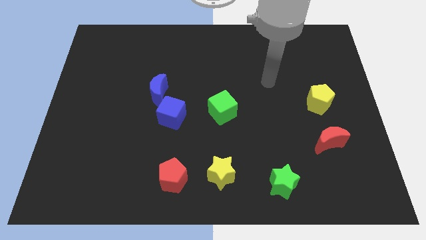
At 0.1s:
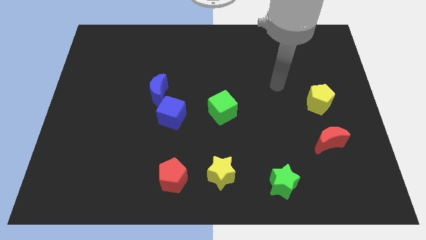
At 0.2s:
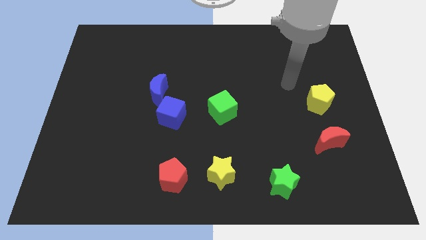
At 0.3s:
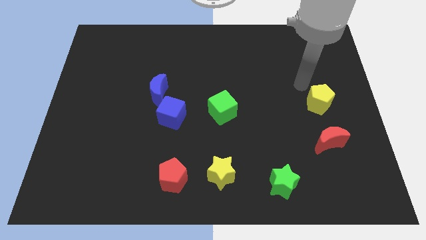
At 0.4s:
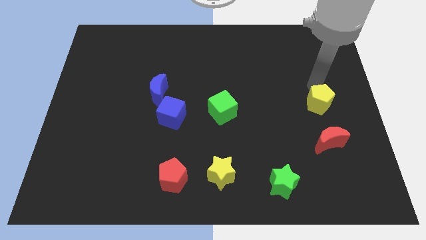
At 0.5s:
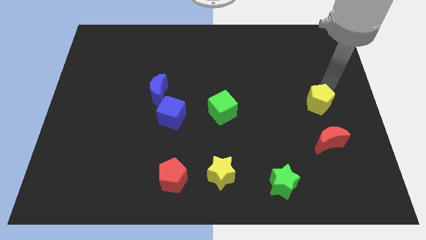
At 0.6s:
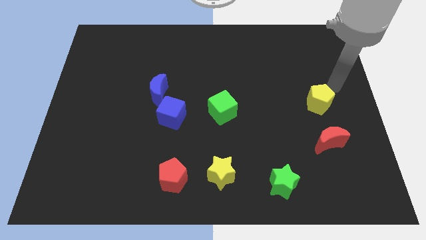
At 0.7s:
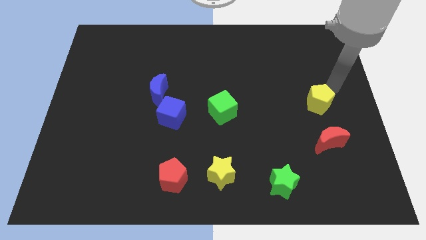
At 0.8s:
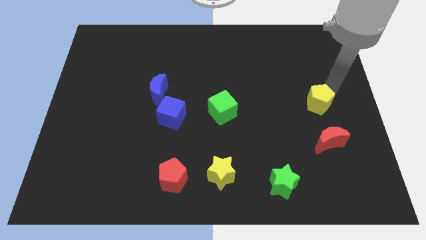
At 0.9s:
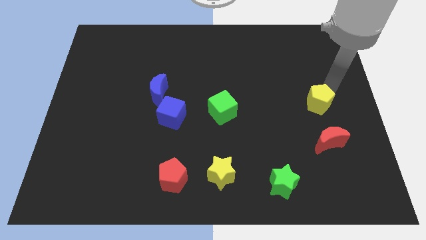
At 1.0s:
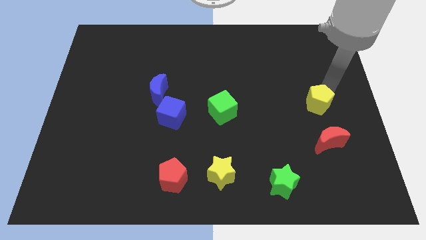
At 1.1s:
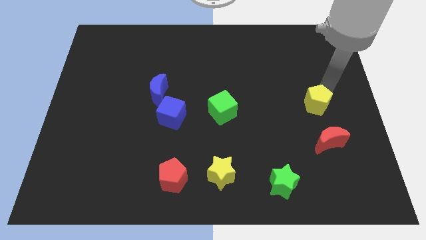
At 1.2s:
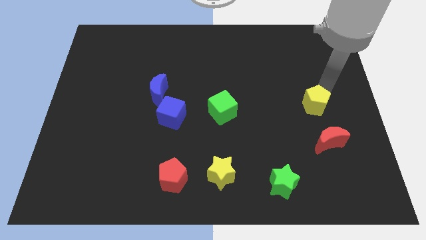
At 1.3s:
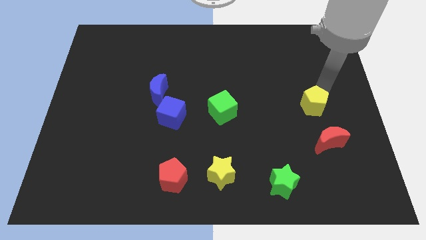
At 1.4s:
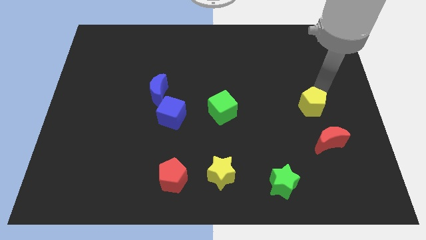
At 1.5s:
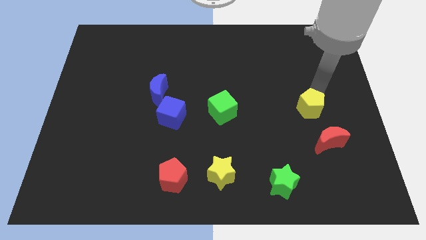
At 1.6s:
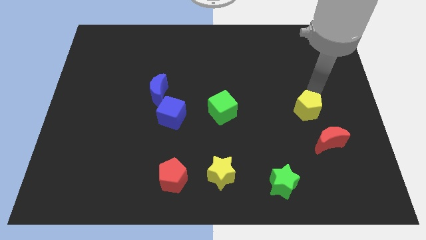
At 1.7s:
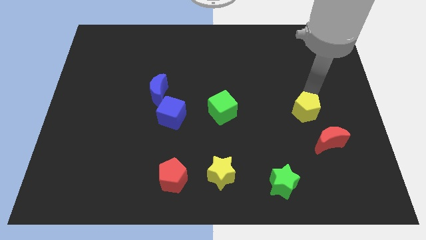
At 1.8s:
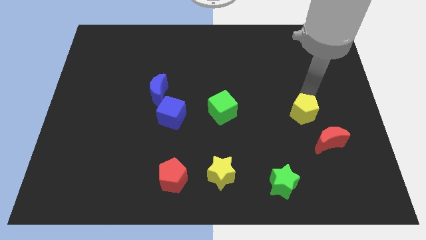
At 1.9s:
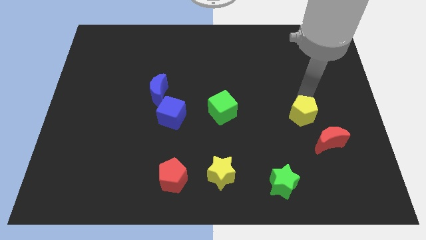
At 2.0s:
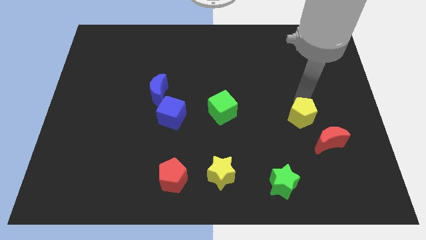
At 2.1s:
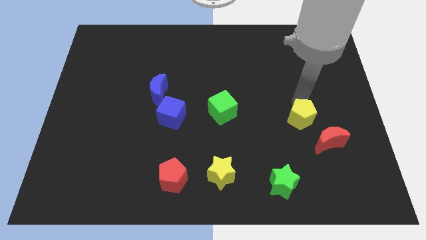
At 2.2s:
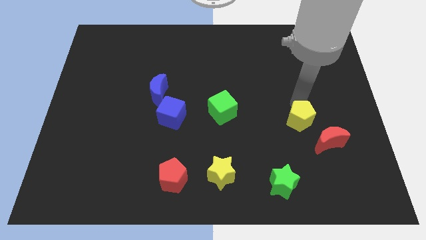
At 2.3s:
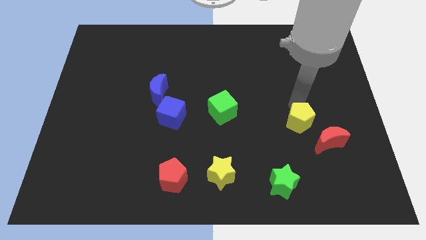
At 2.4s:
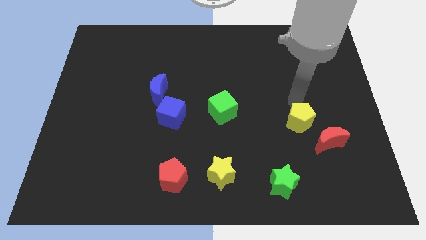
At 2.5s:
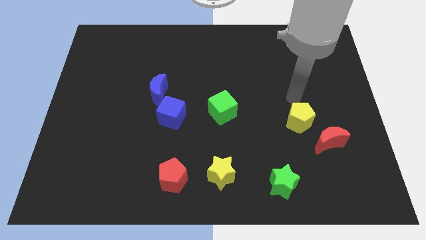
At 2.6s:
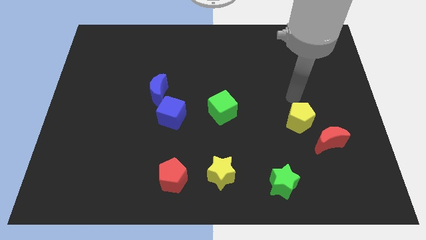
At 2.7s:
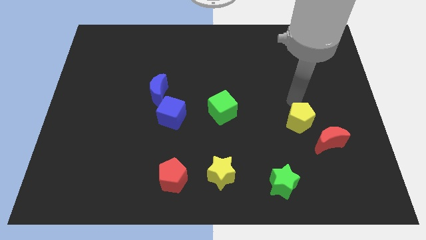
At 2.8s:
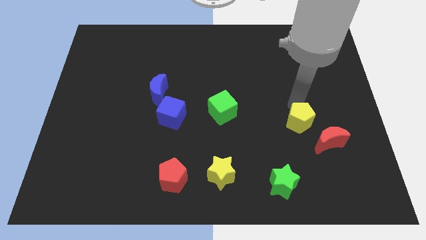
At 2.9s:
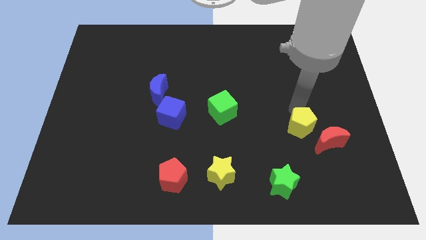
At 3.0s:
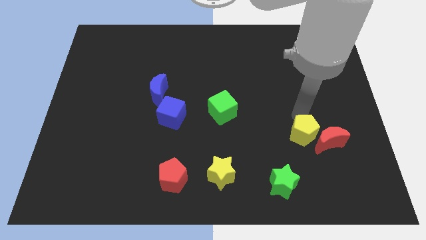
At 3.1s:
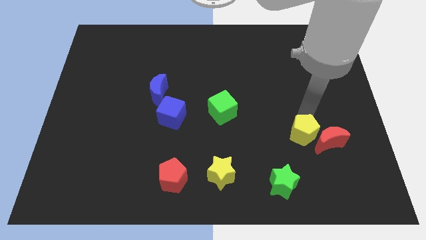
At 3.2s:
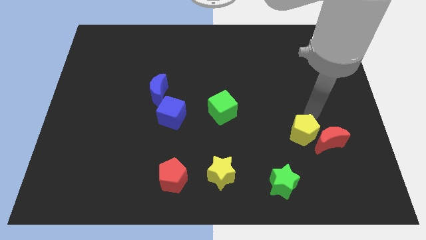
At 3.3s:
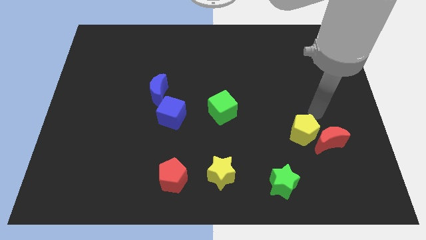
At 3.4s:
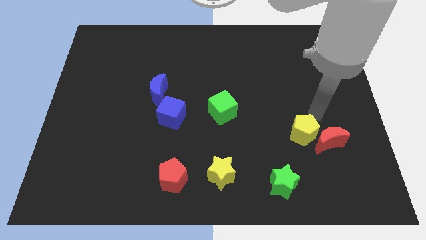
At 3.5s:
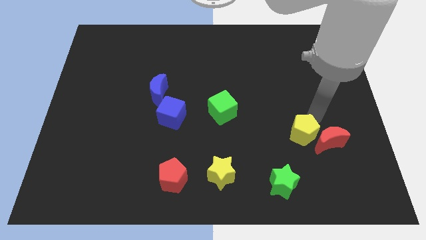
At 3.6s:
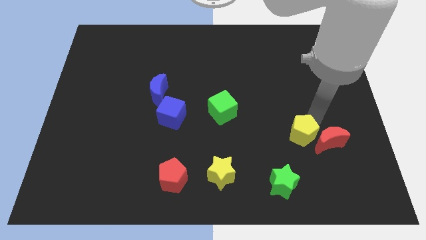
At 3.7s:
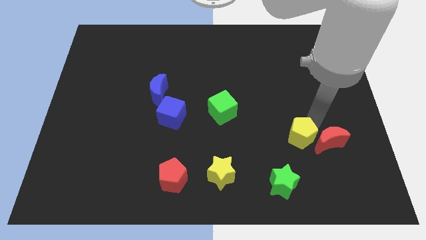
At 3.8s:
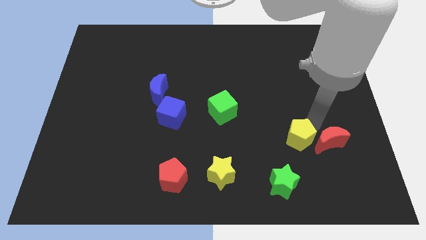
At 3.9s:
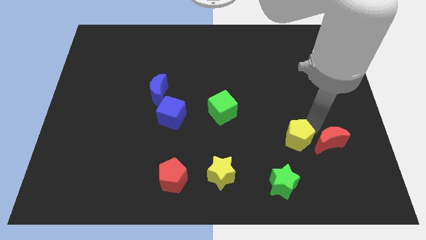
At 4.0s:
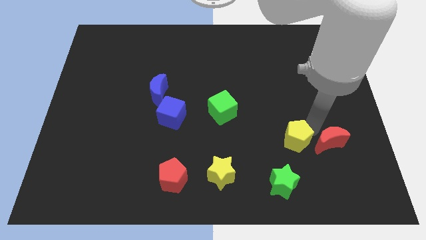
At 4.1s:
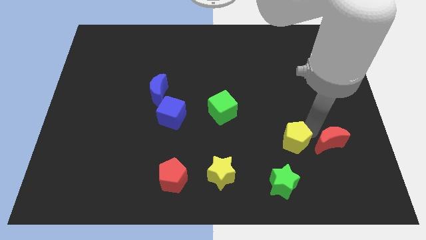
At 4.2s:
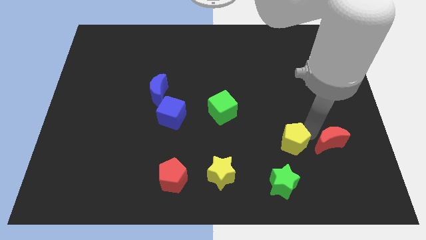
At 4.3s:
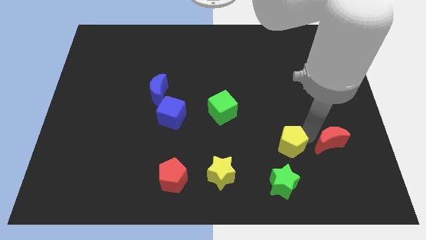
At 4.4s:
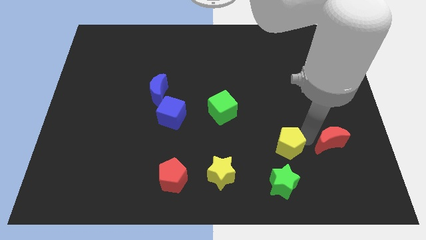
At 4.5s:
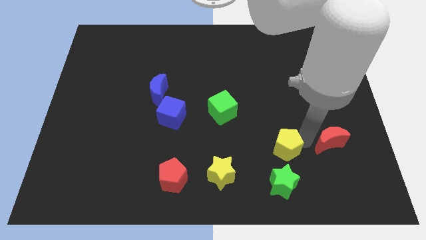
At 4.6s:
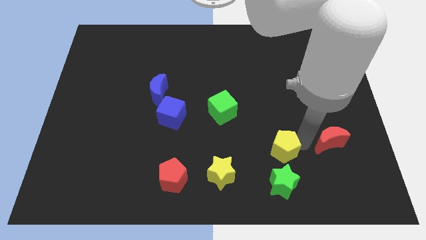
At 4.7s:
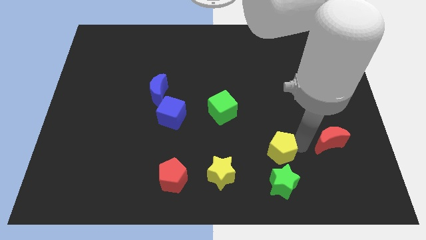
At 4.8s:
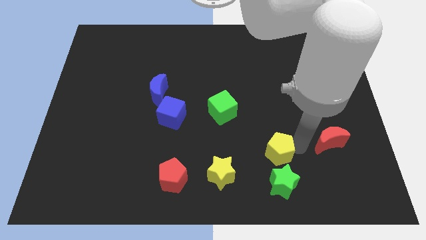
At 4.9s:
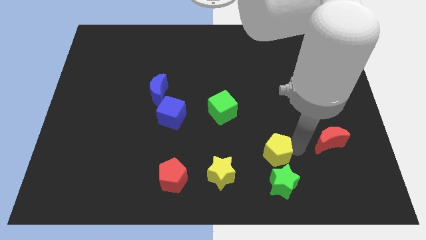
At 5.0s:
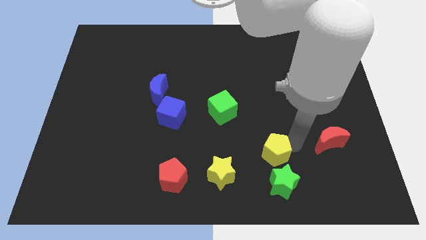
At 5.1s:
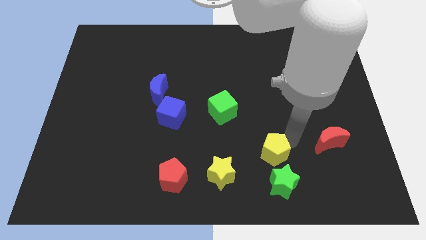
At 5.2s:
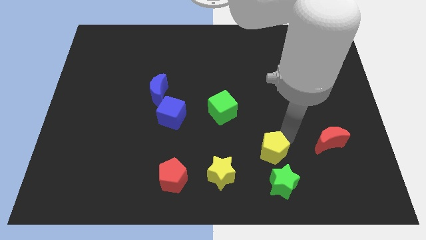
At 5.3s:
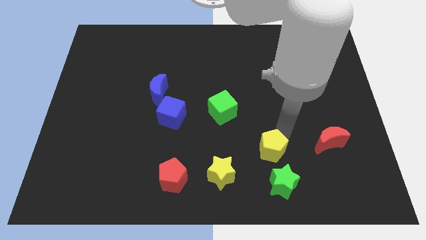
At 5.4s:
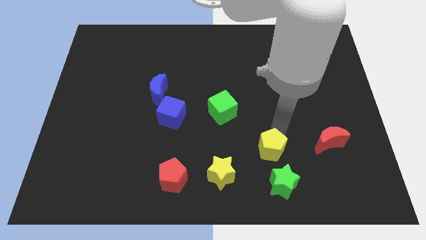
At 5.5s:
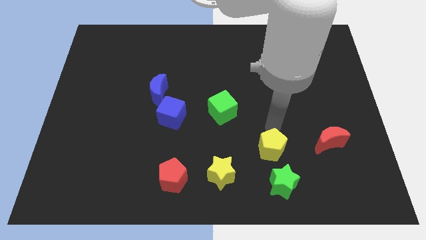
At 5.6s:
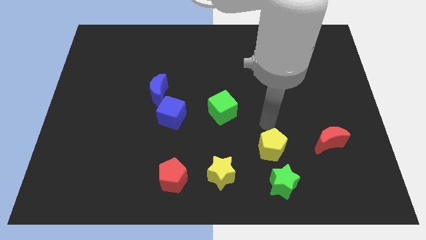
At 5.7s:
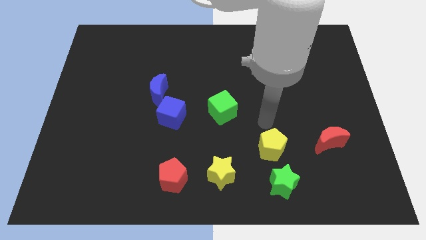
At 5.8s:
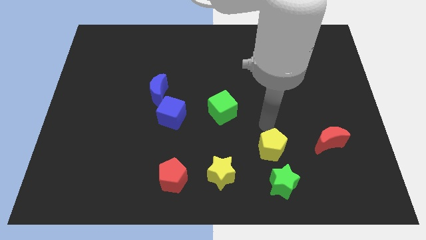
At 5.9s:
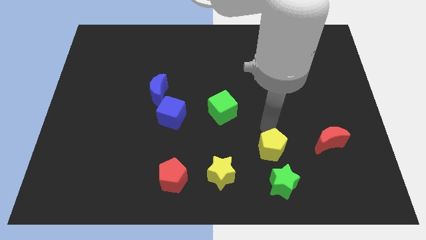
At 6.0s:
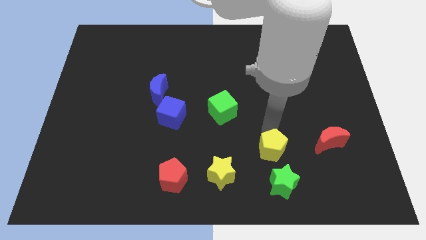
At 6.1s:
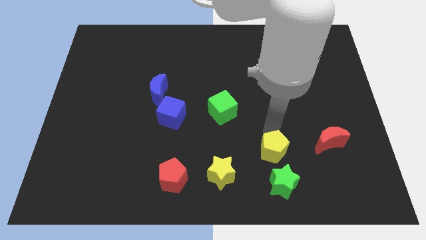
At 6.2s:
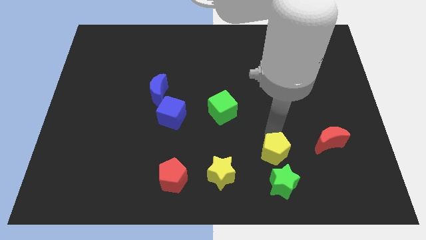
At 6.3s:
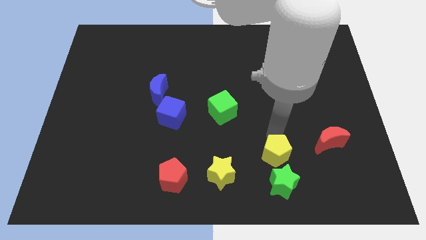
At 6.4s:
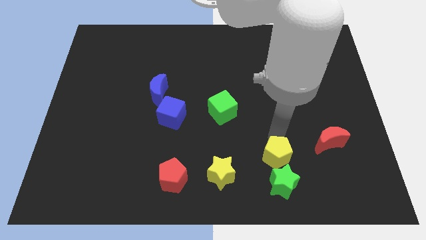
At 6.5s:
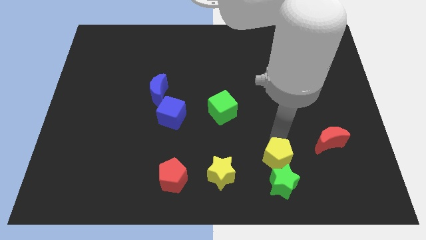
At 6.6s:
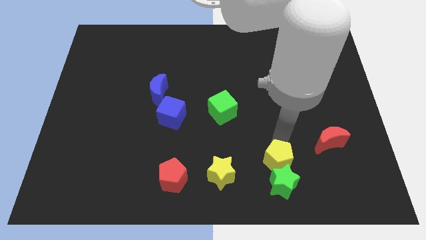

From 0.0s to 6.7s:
put the yellow pentagon towards the green star

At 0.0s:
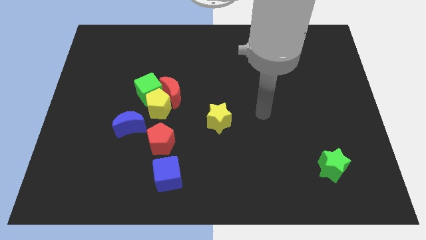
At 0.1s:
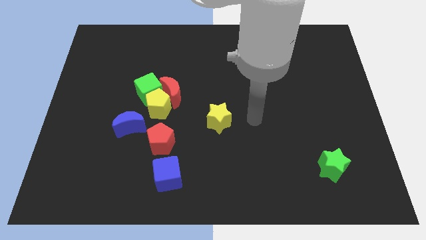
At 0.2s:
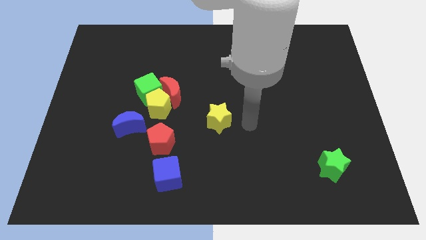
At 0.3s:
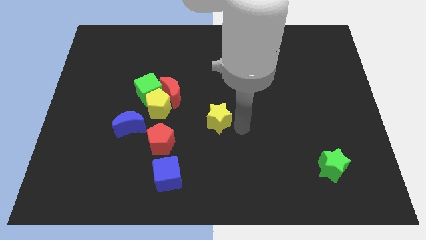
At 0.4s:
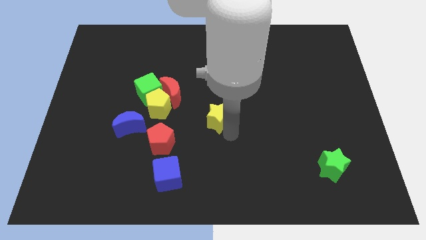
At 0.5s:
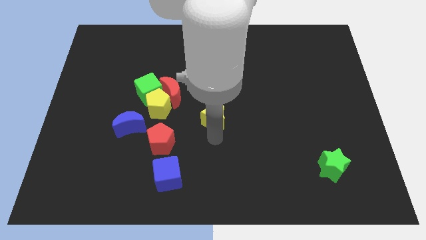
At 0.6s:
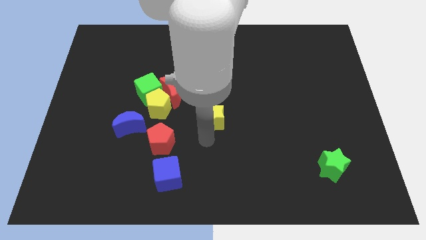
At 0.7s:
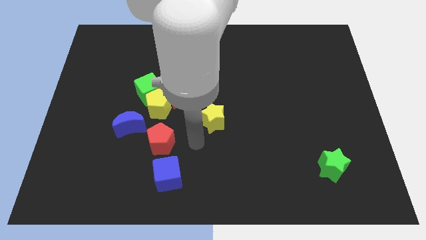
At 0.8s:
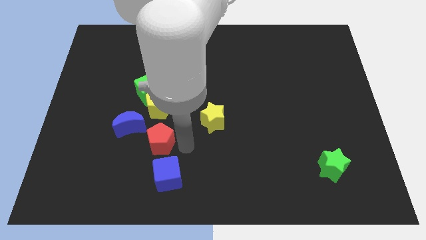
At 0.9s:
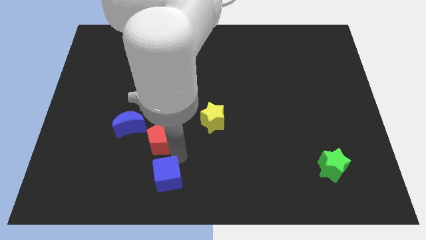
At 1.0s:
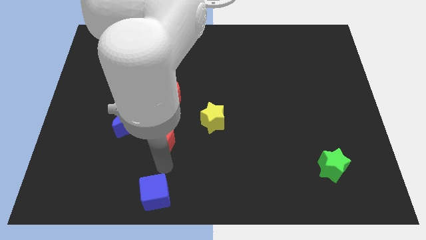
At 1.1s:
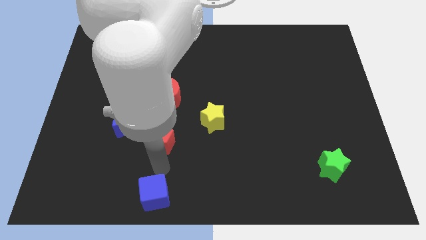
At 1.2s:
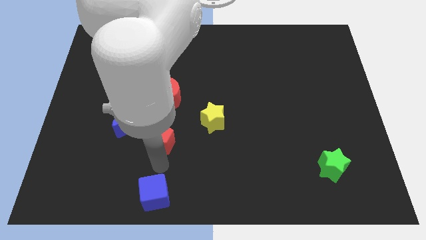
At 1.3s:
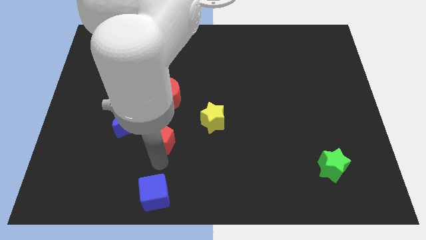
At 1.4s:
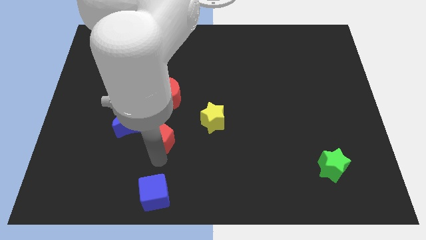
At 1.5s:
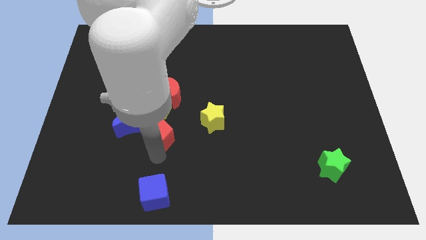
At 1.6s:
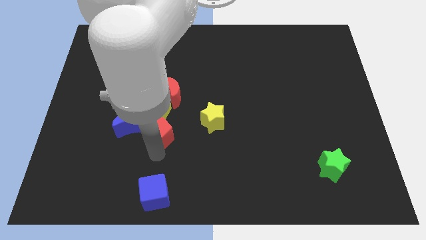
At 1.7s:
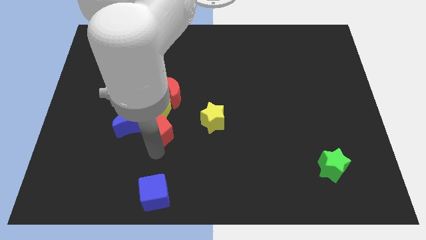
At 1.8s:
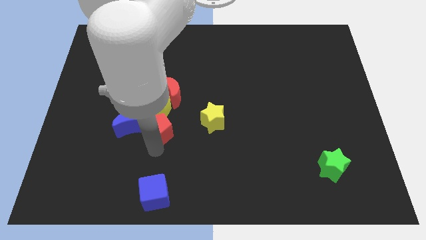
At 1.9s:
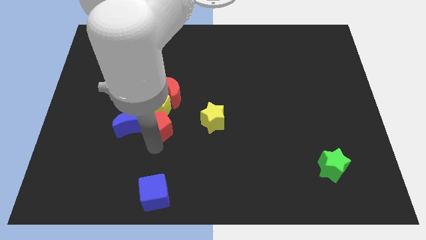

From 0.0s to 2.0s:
move the red pentagon towards the yellow pentagon
